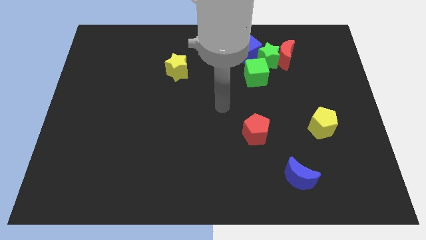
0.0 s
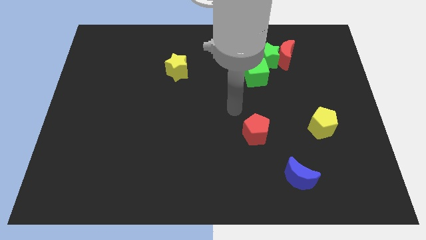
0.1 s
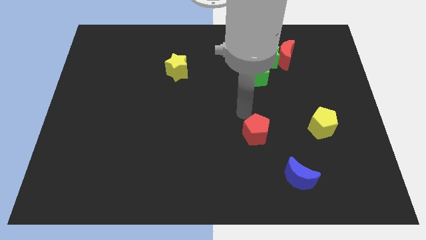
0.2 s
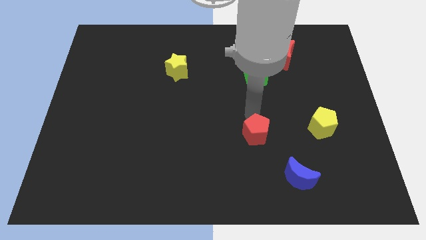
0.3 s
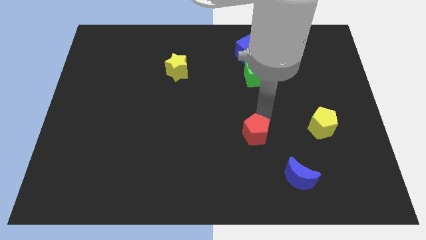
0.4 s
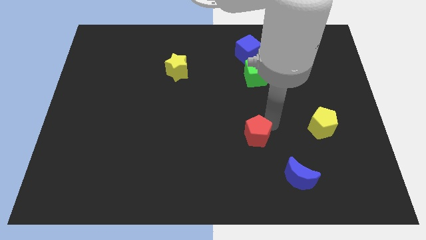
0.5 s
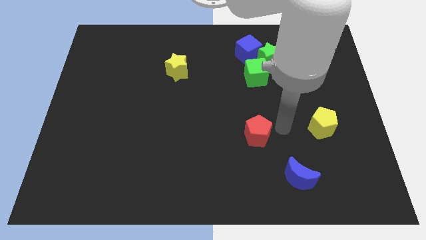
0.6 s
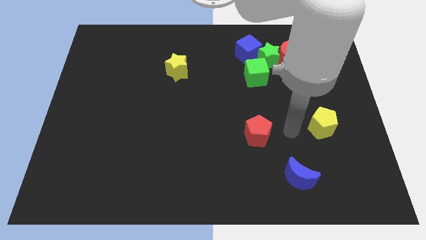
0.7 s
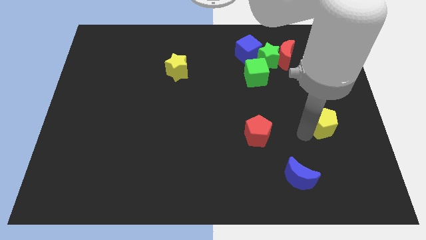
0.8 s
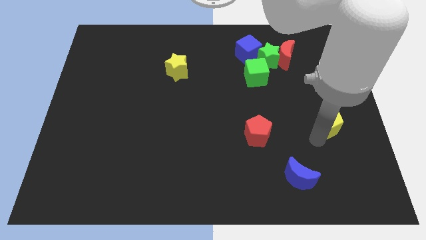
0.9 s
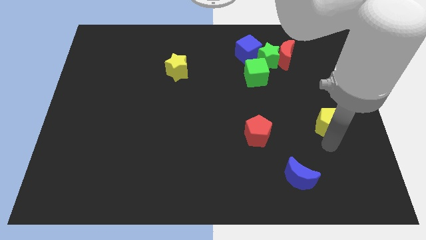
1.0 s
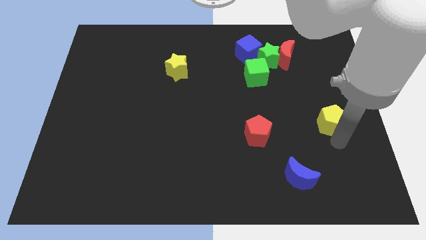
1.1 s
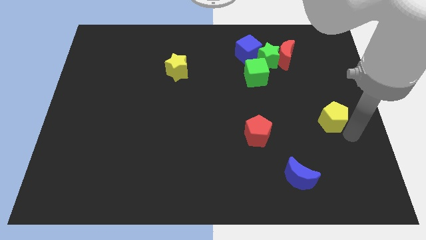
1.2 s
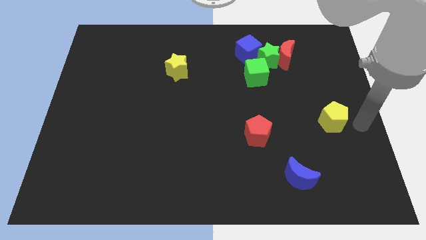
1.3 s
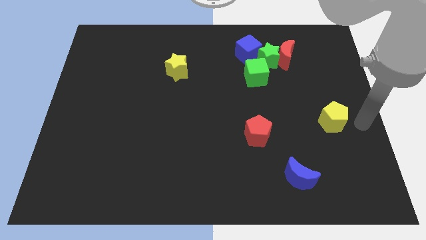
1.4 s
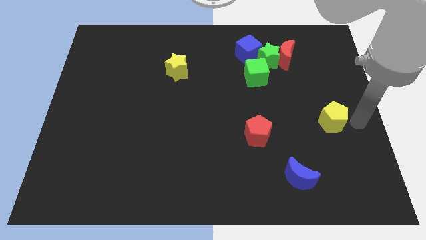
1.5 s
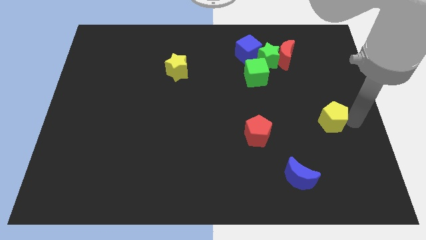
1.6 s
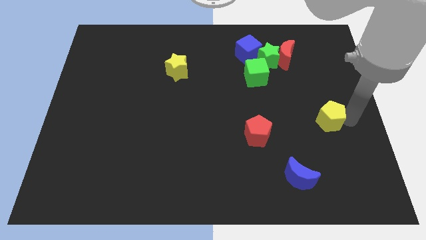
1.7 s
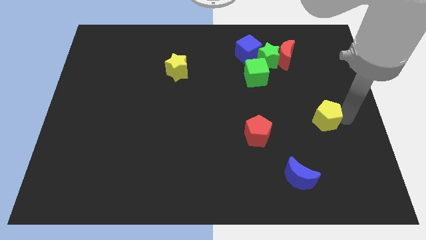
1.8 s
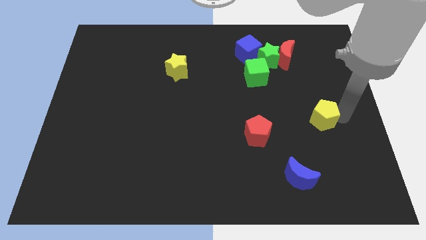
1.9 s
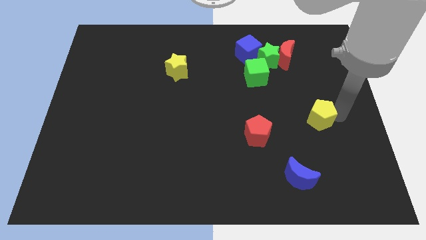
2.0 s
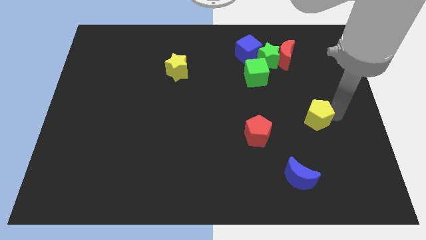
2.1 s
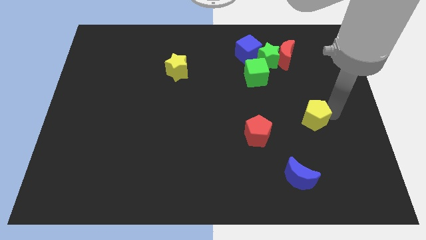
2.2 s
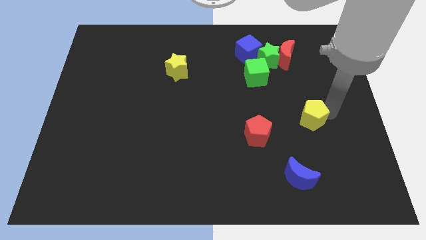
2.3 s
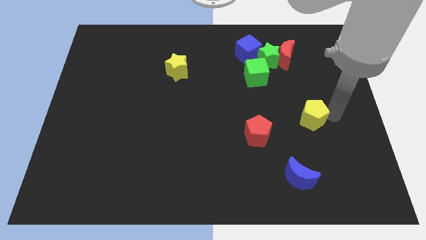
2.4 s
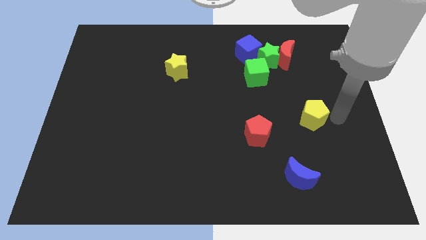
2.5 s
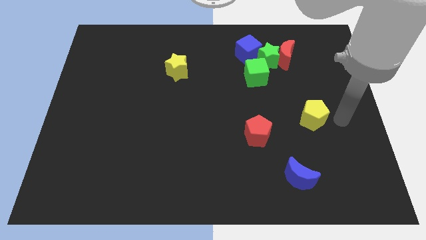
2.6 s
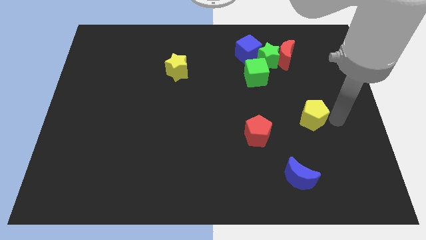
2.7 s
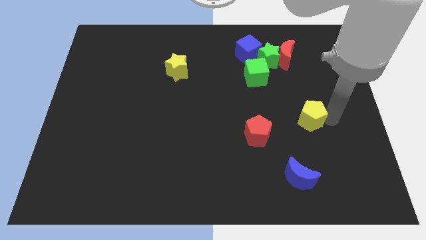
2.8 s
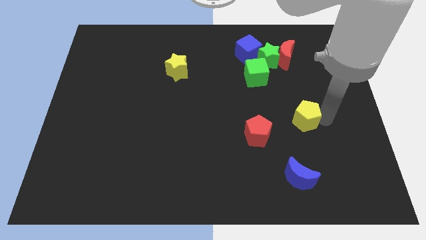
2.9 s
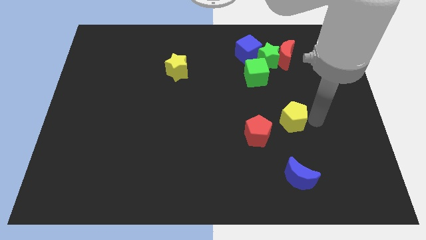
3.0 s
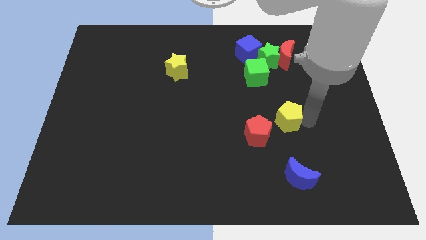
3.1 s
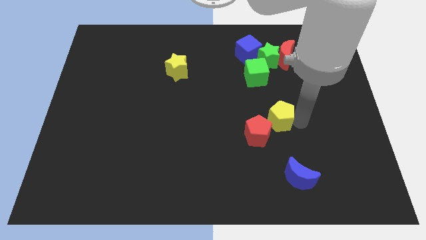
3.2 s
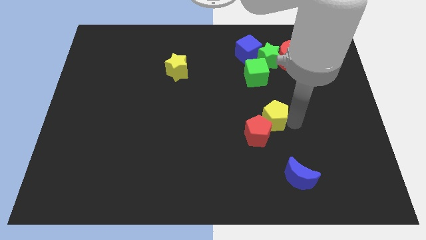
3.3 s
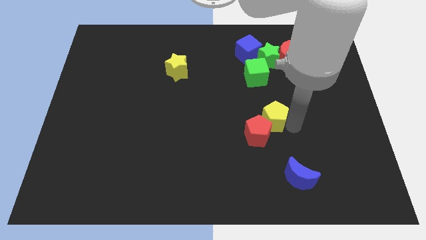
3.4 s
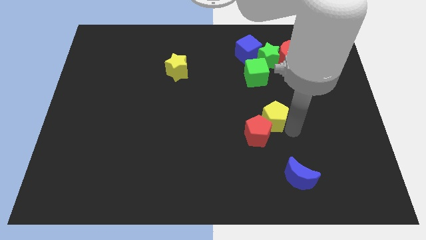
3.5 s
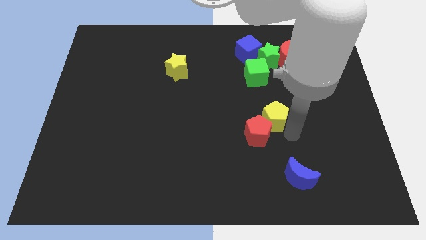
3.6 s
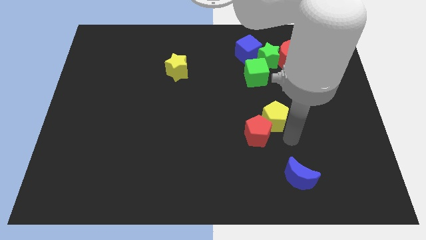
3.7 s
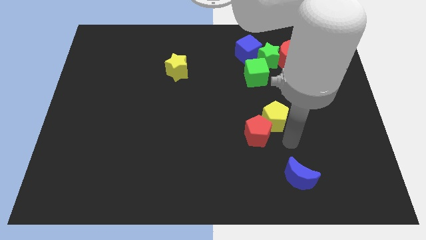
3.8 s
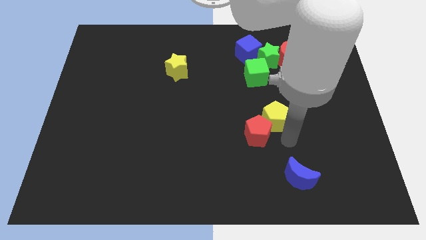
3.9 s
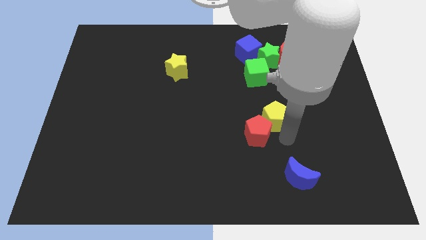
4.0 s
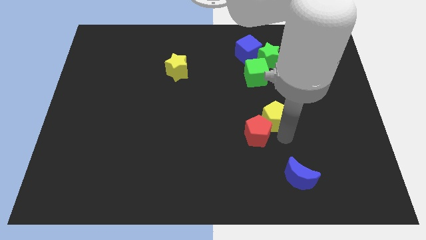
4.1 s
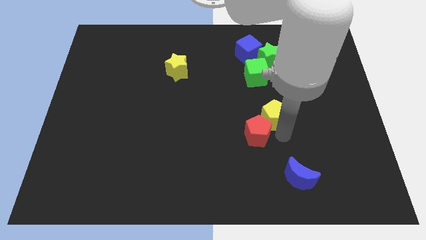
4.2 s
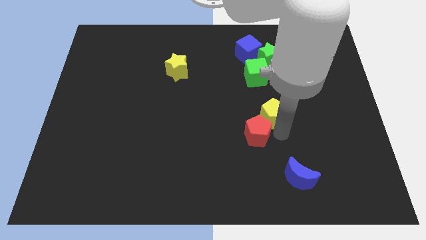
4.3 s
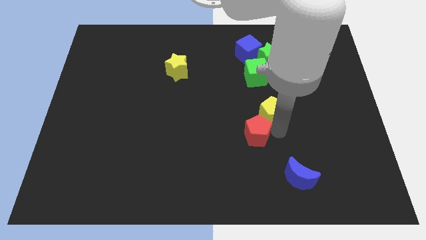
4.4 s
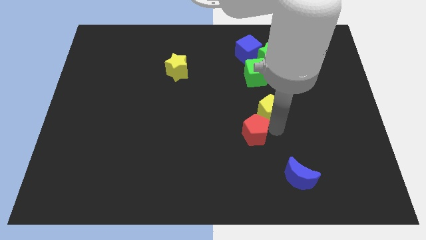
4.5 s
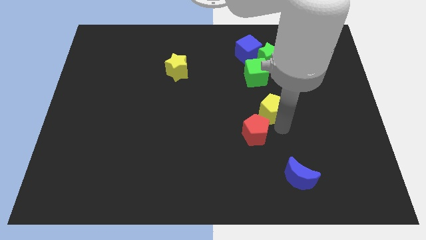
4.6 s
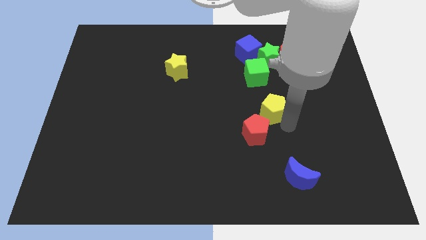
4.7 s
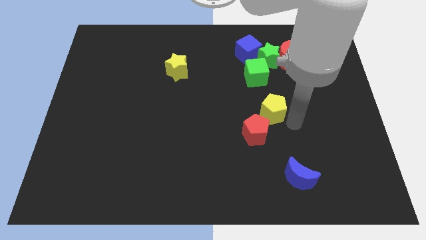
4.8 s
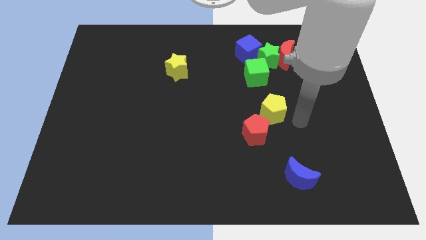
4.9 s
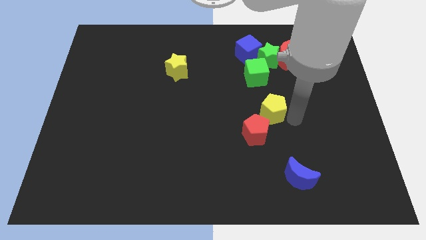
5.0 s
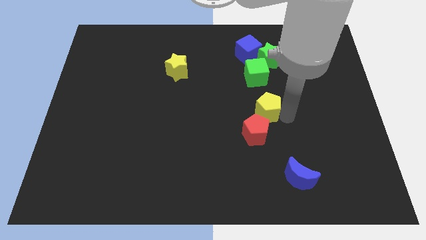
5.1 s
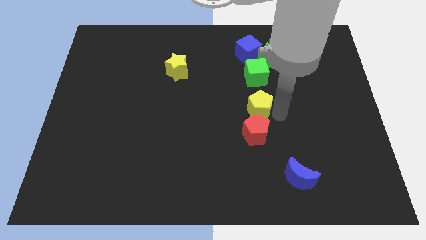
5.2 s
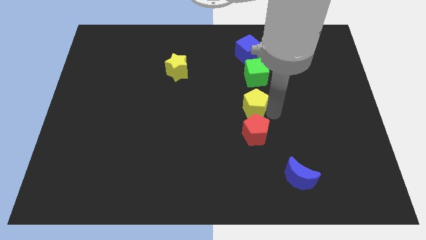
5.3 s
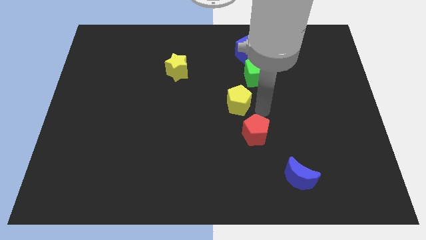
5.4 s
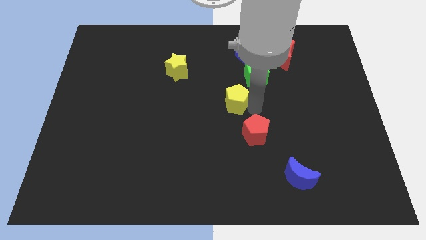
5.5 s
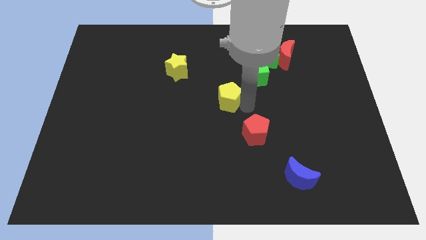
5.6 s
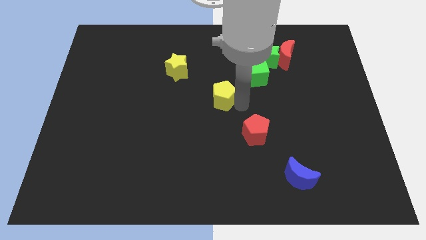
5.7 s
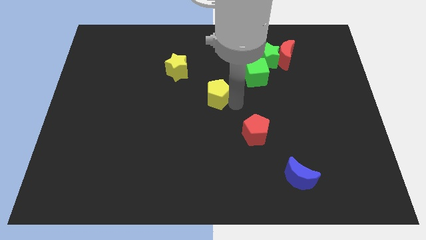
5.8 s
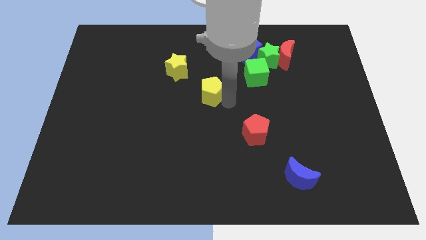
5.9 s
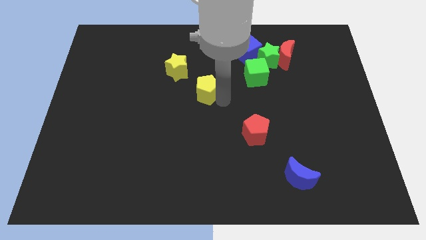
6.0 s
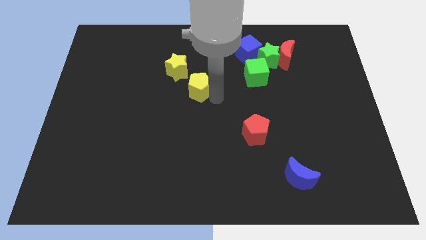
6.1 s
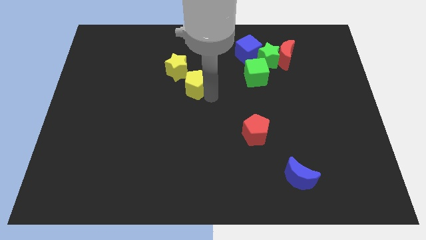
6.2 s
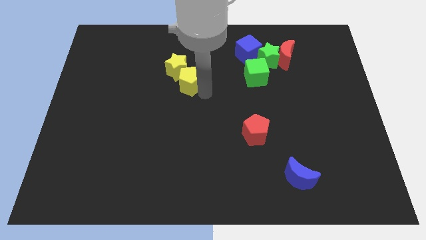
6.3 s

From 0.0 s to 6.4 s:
slide the yellow pentagon towards the yellow star

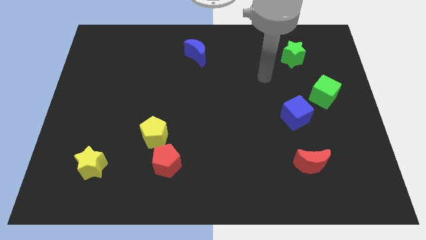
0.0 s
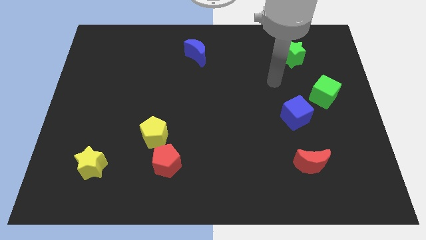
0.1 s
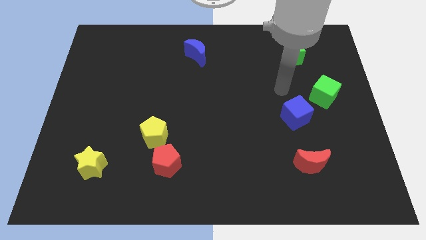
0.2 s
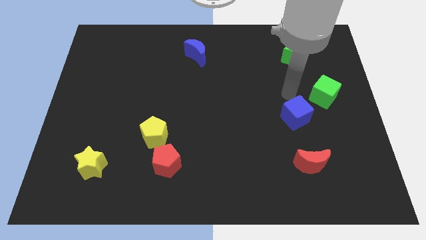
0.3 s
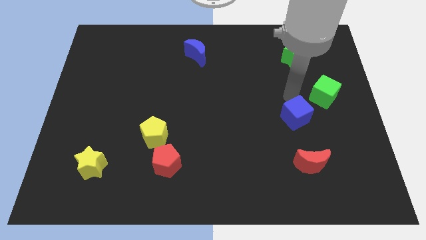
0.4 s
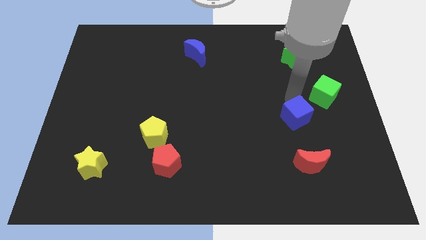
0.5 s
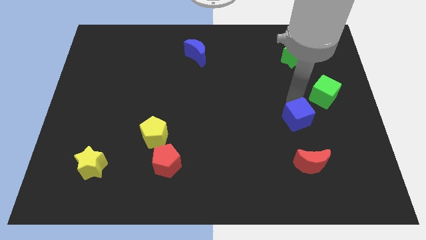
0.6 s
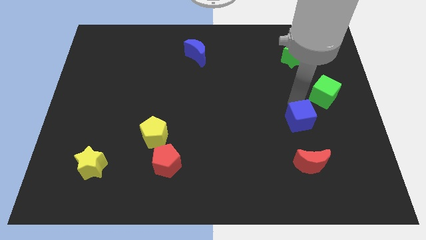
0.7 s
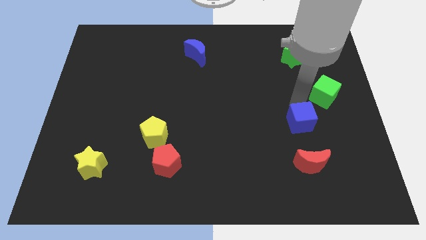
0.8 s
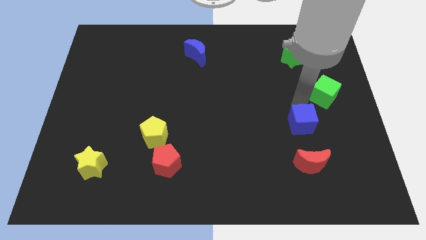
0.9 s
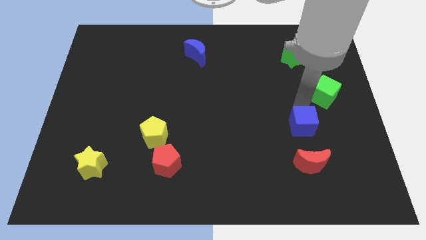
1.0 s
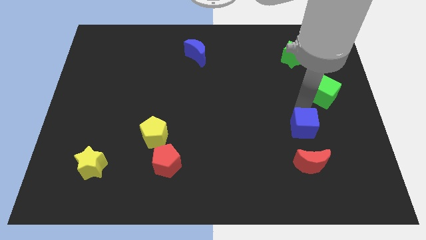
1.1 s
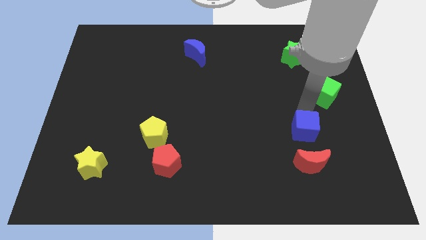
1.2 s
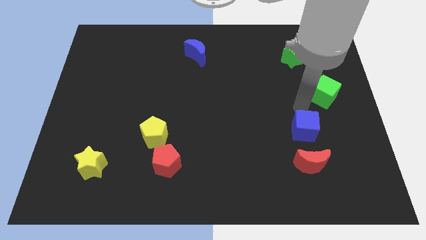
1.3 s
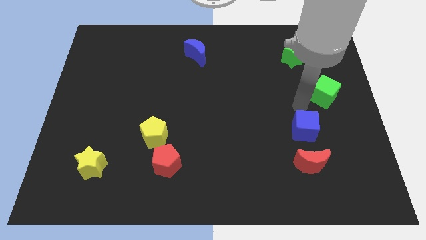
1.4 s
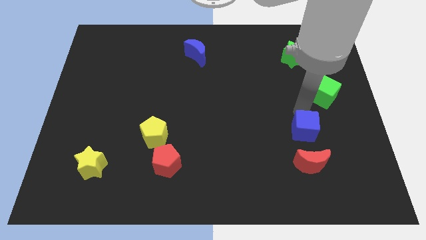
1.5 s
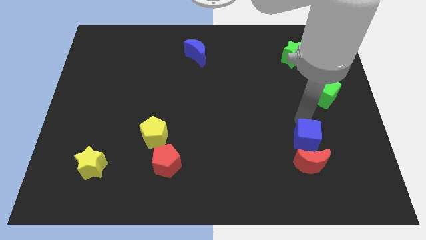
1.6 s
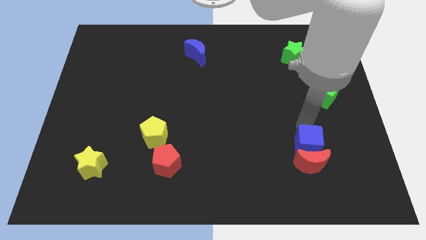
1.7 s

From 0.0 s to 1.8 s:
put the blue cube close to the red moon
